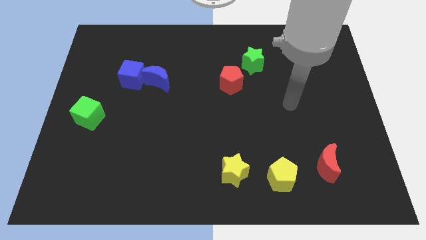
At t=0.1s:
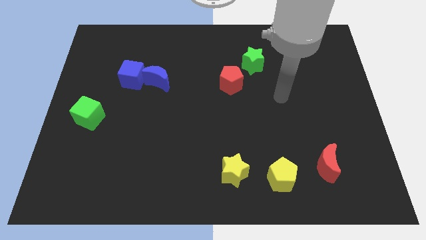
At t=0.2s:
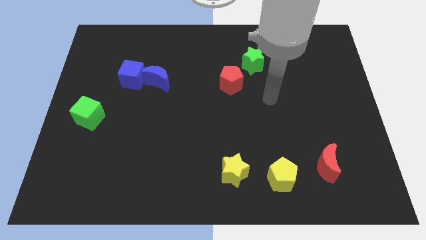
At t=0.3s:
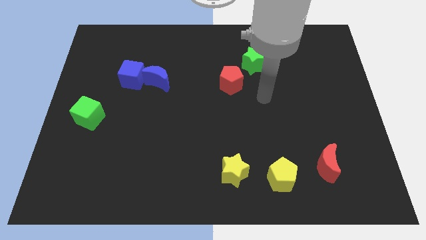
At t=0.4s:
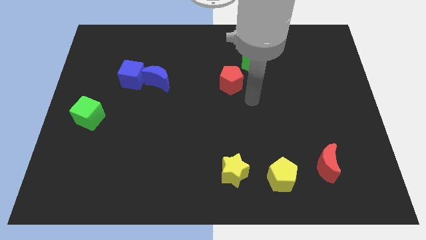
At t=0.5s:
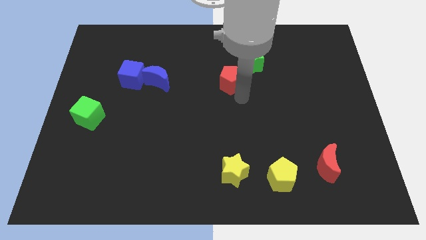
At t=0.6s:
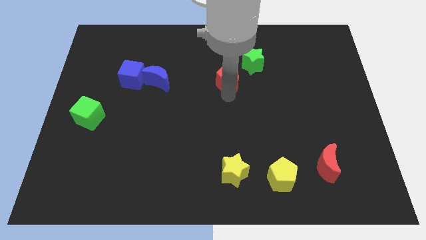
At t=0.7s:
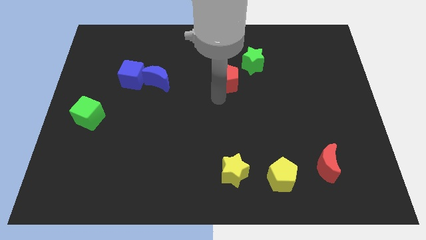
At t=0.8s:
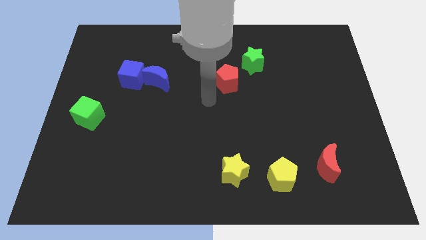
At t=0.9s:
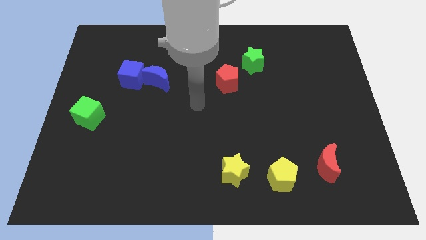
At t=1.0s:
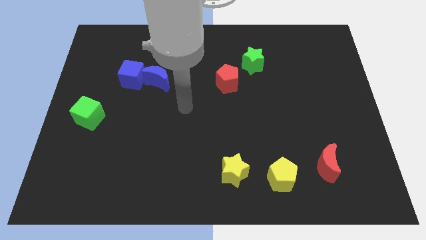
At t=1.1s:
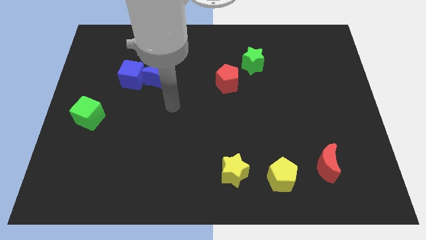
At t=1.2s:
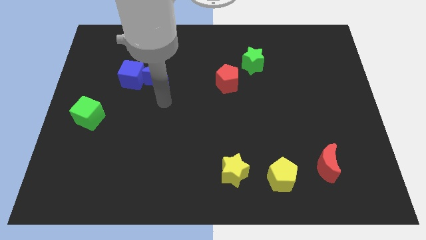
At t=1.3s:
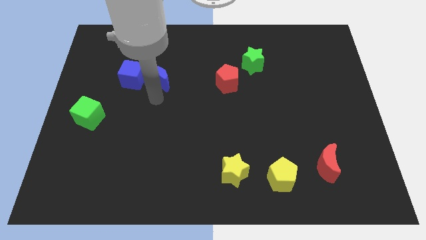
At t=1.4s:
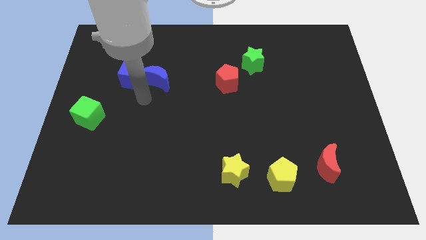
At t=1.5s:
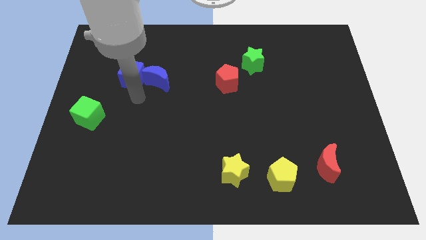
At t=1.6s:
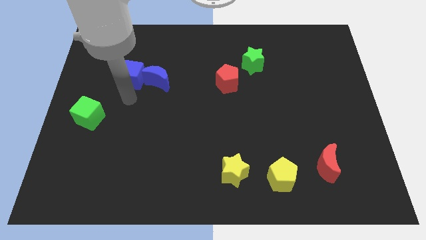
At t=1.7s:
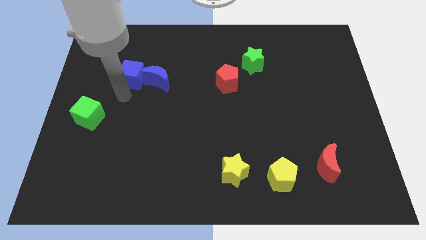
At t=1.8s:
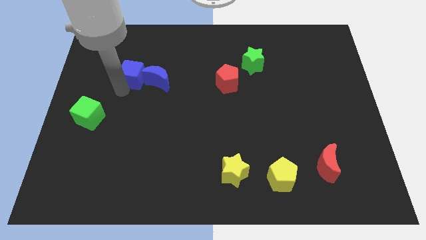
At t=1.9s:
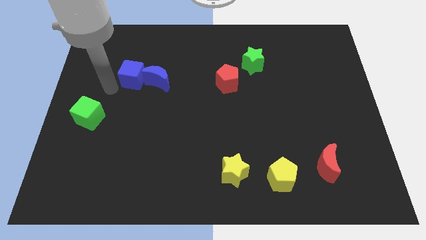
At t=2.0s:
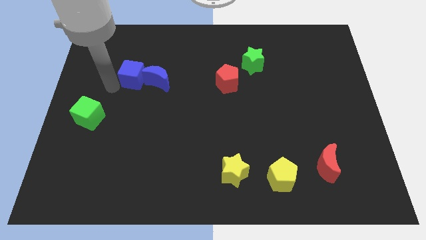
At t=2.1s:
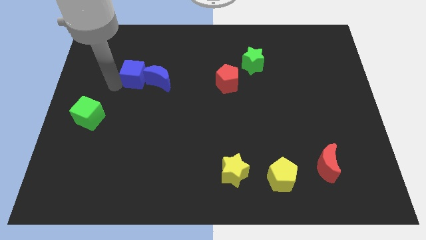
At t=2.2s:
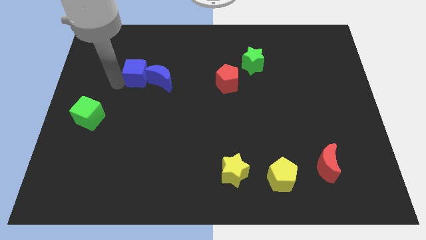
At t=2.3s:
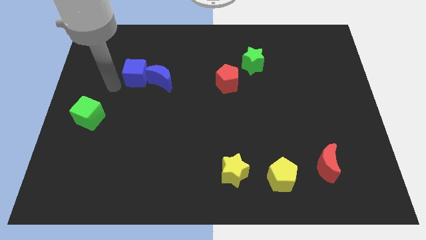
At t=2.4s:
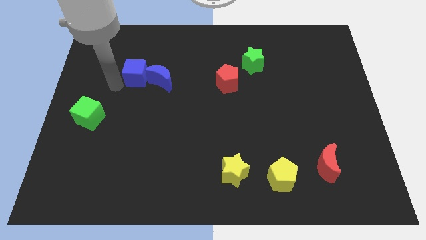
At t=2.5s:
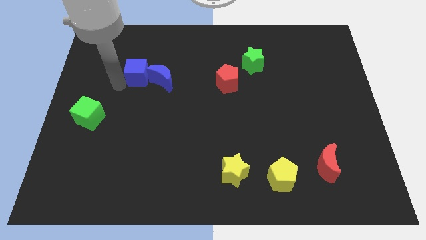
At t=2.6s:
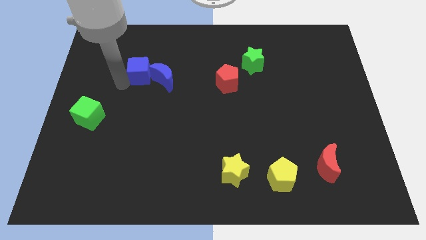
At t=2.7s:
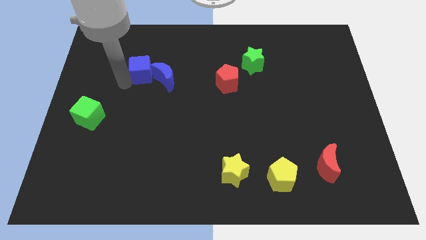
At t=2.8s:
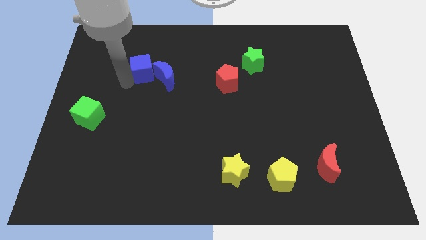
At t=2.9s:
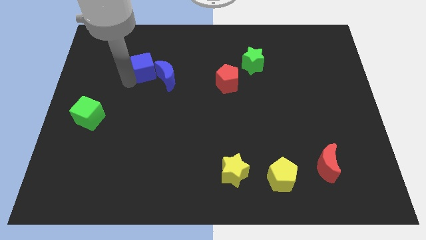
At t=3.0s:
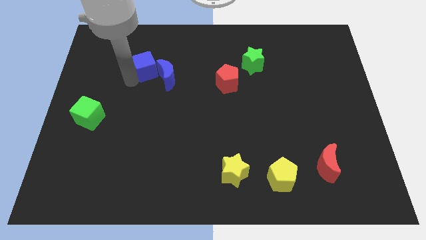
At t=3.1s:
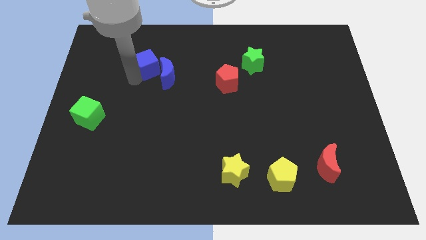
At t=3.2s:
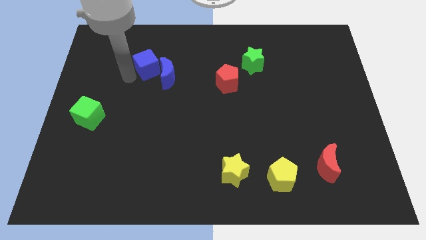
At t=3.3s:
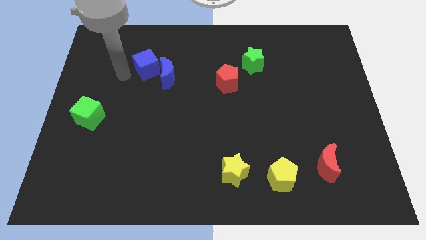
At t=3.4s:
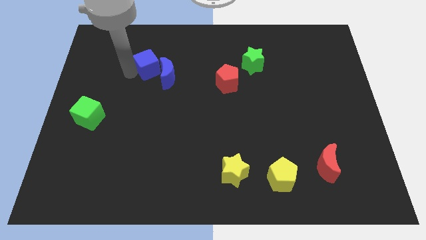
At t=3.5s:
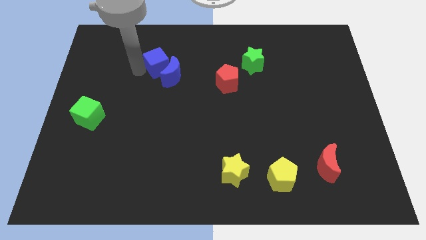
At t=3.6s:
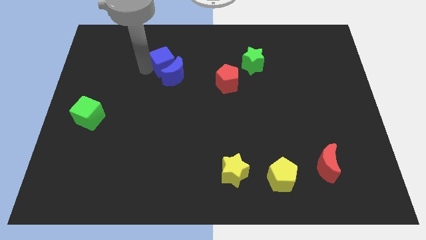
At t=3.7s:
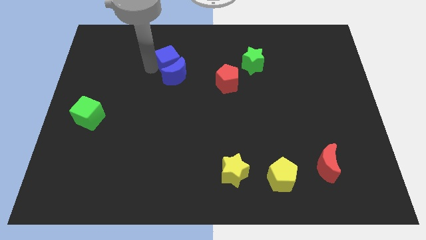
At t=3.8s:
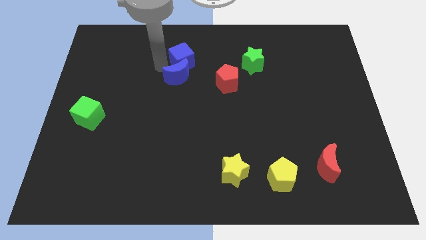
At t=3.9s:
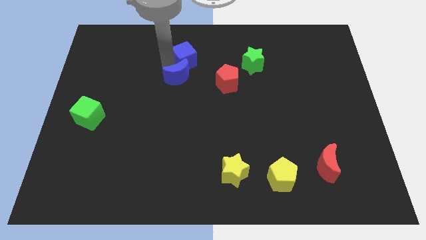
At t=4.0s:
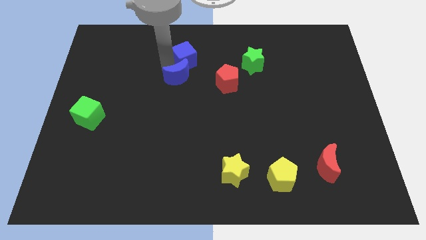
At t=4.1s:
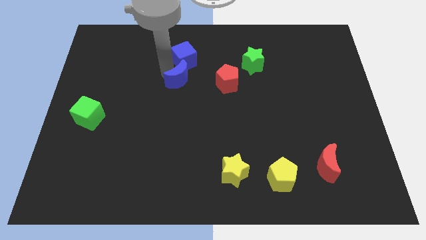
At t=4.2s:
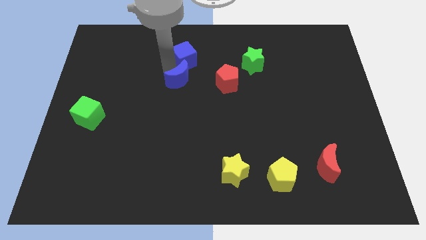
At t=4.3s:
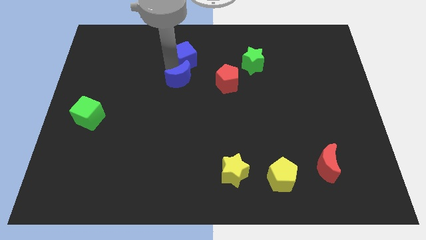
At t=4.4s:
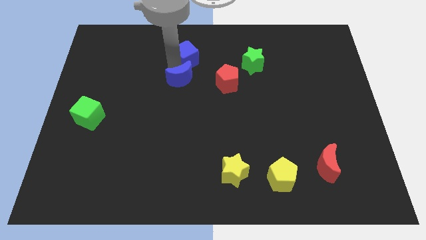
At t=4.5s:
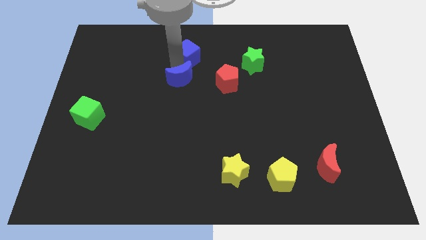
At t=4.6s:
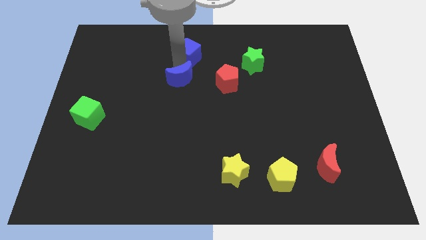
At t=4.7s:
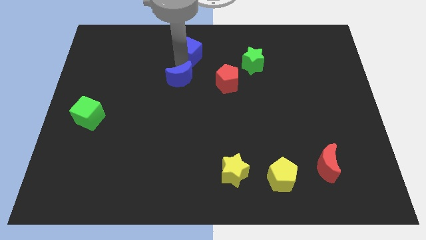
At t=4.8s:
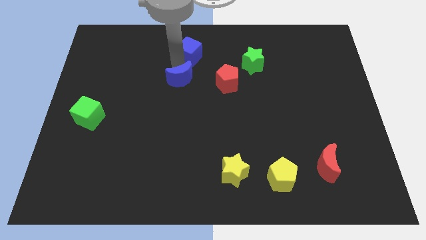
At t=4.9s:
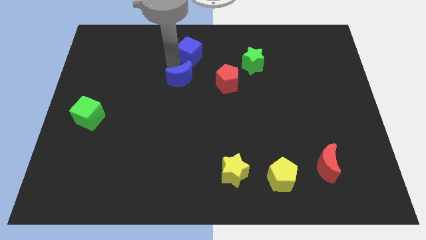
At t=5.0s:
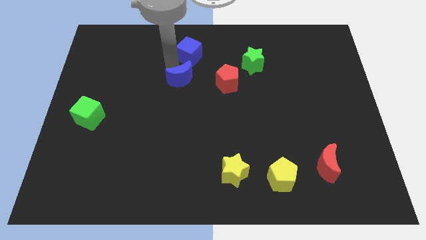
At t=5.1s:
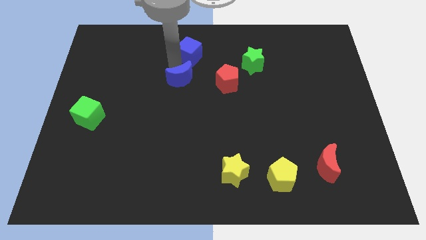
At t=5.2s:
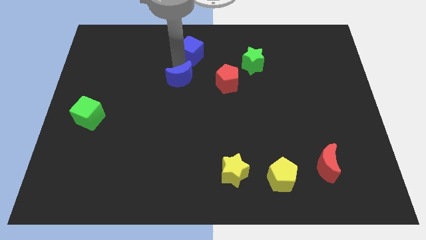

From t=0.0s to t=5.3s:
put the blue cube to the towards your base
